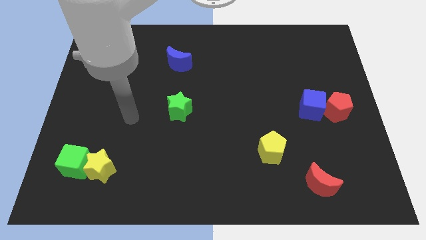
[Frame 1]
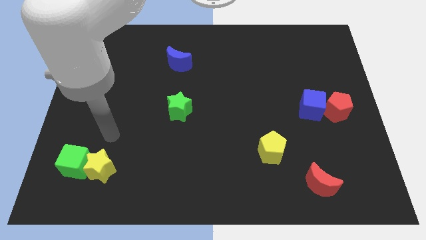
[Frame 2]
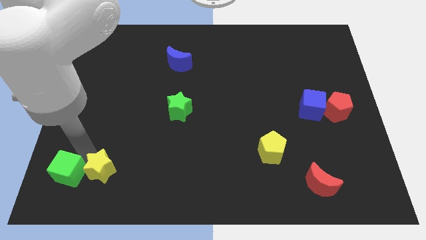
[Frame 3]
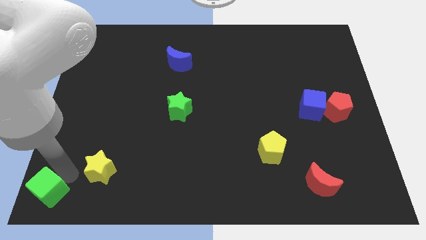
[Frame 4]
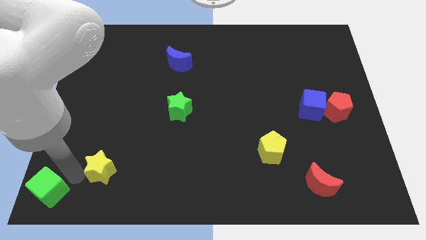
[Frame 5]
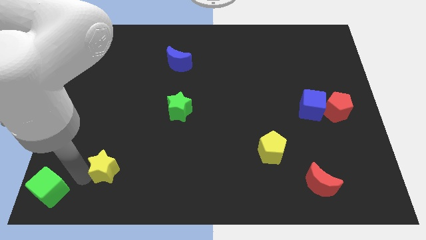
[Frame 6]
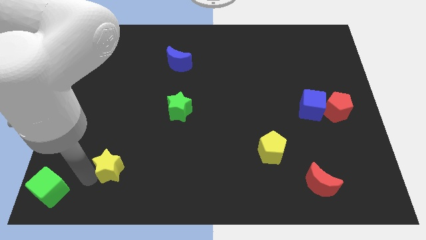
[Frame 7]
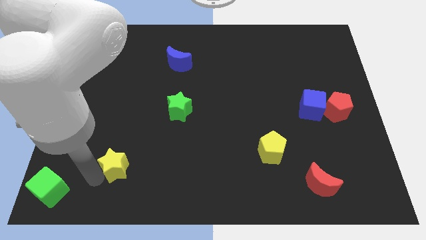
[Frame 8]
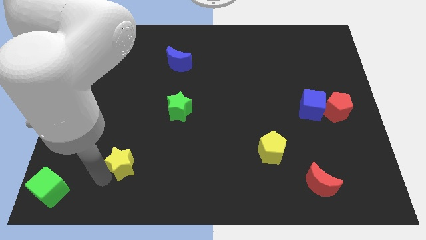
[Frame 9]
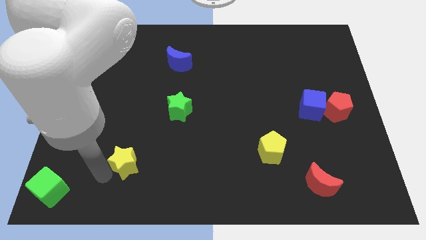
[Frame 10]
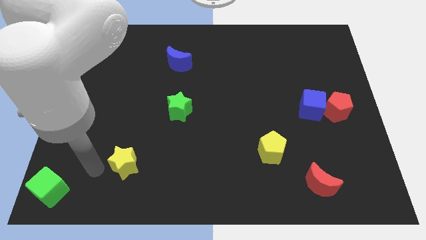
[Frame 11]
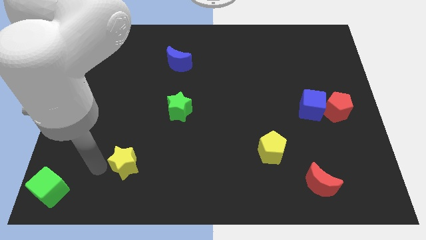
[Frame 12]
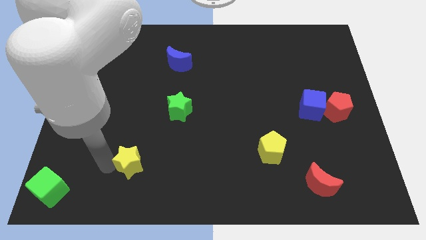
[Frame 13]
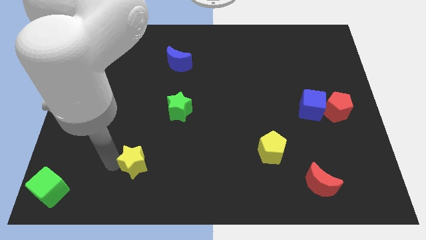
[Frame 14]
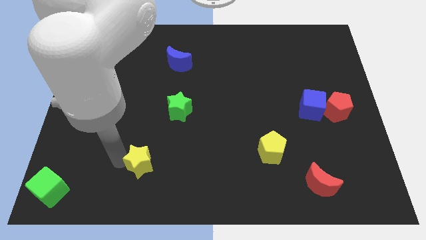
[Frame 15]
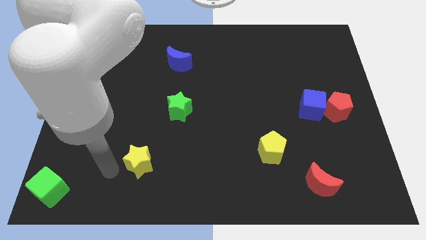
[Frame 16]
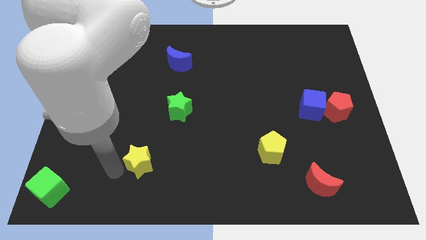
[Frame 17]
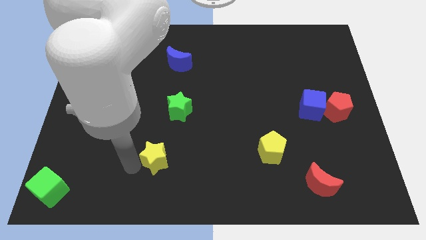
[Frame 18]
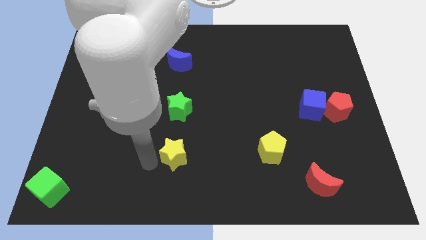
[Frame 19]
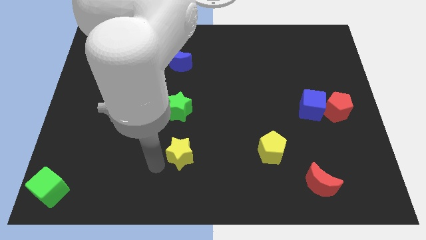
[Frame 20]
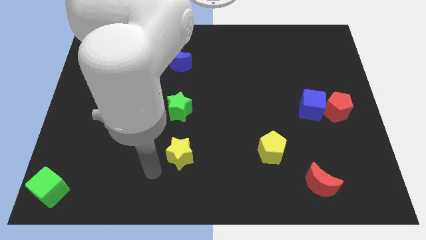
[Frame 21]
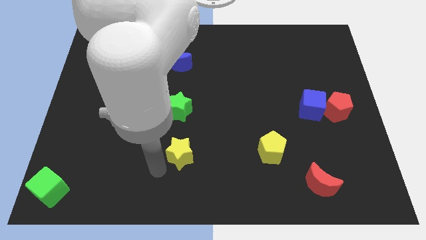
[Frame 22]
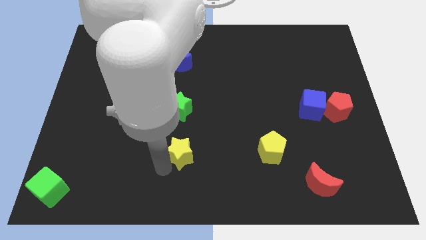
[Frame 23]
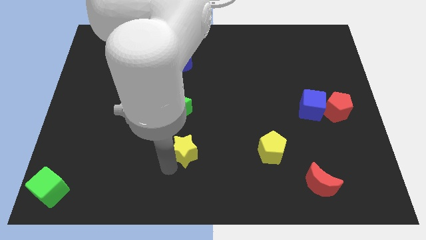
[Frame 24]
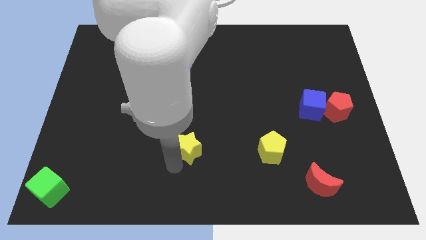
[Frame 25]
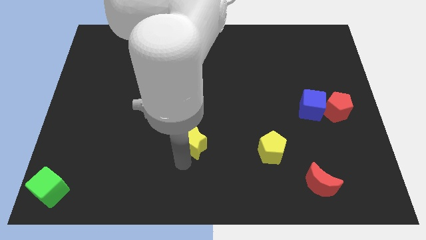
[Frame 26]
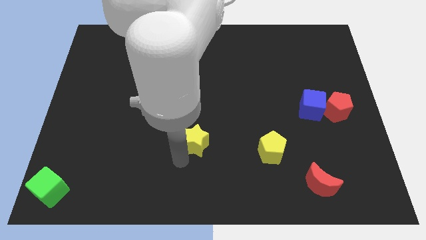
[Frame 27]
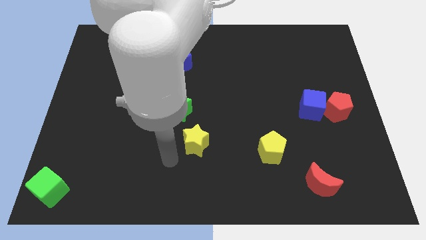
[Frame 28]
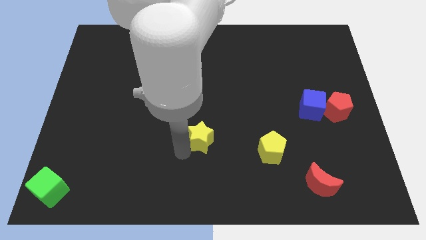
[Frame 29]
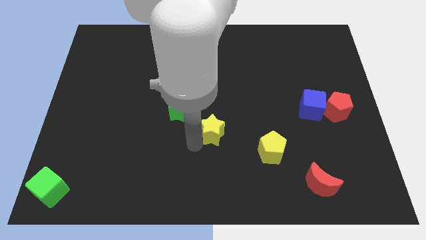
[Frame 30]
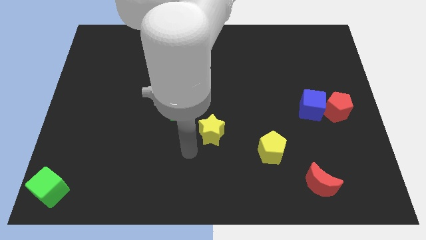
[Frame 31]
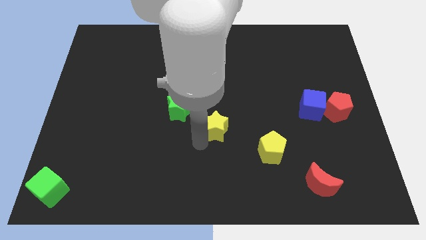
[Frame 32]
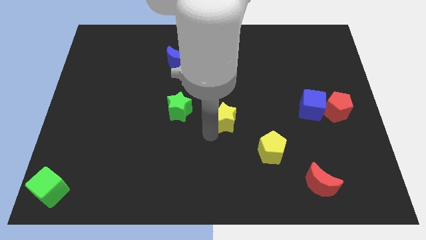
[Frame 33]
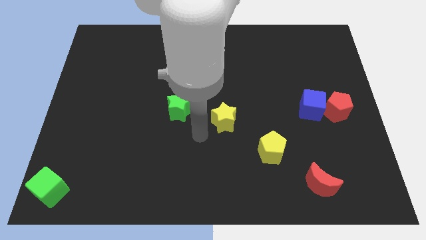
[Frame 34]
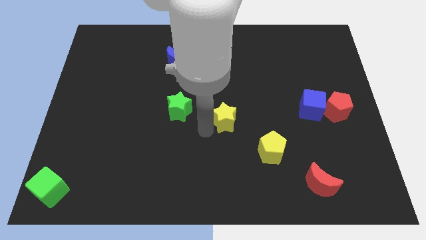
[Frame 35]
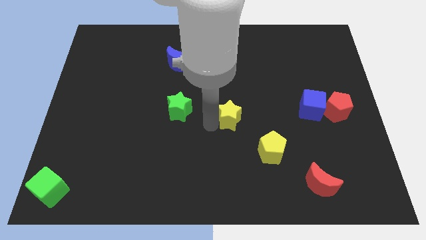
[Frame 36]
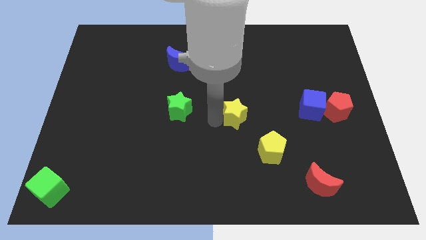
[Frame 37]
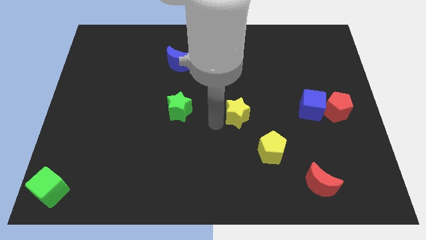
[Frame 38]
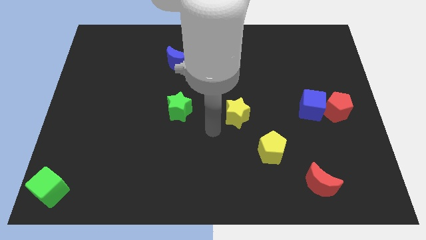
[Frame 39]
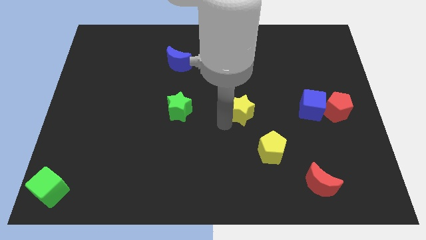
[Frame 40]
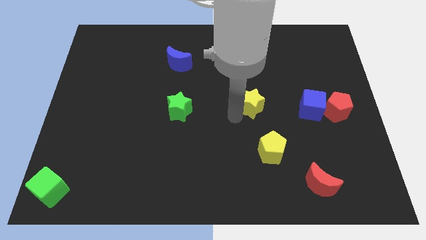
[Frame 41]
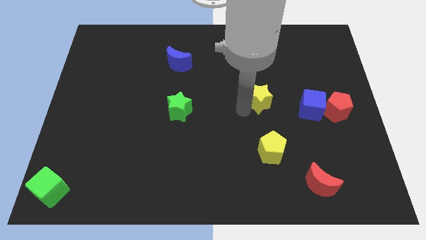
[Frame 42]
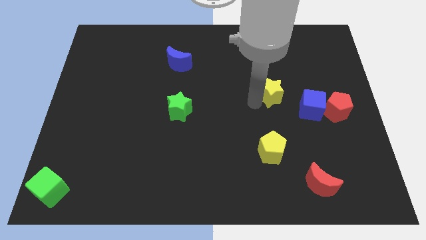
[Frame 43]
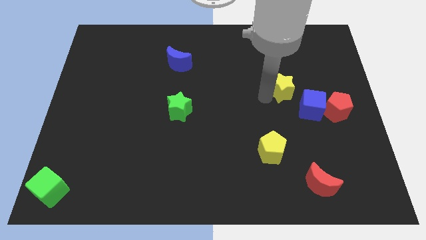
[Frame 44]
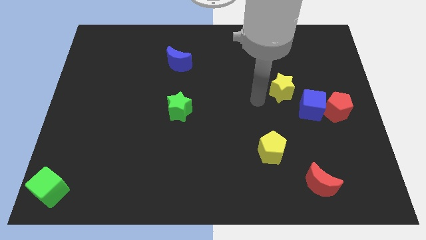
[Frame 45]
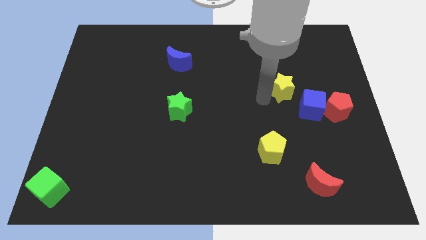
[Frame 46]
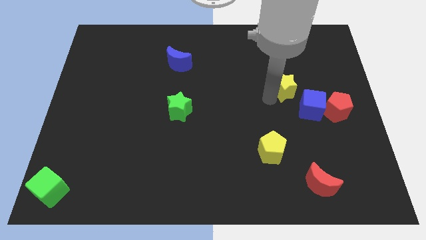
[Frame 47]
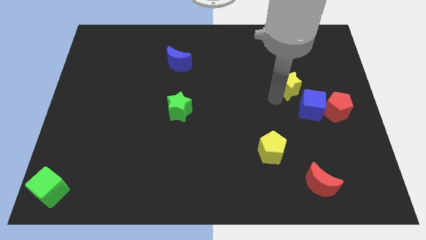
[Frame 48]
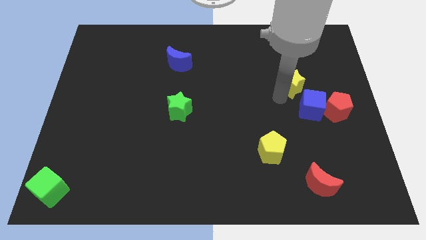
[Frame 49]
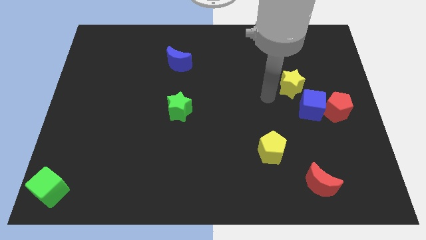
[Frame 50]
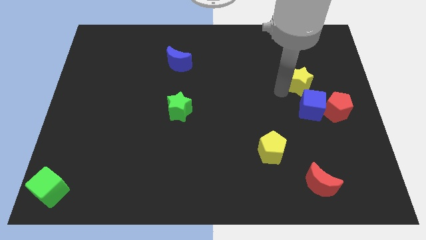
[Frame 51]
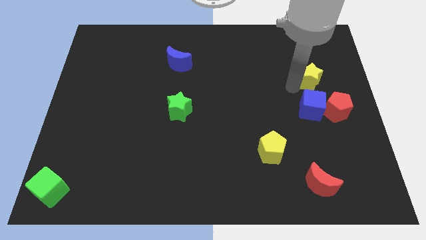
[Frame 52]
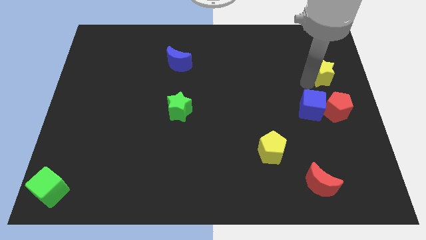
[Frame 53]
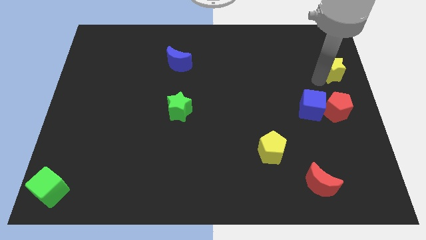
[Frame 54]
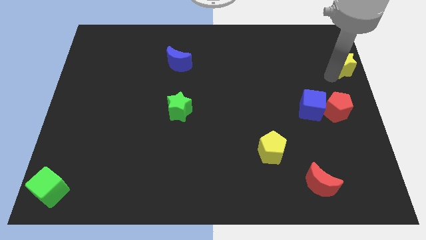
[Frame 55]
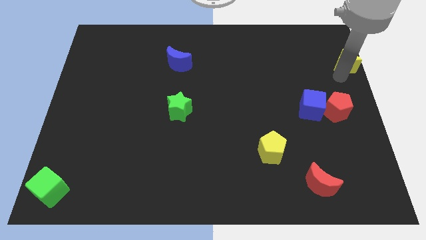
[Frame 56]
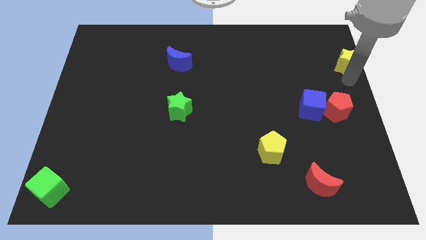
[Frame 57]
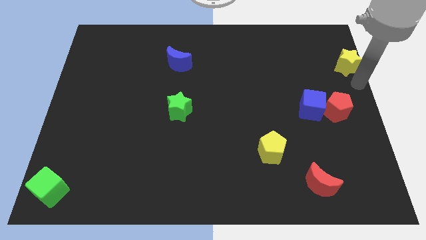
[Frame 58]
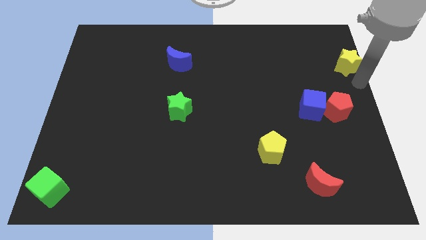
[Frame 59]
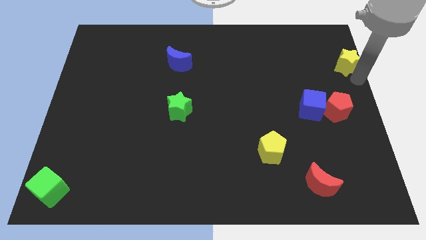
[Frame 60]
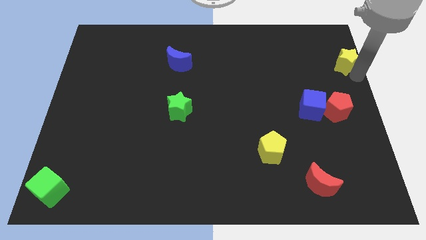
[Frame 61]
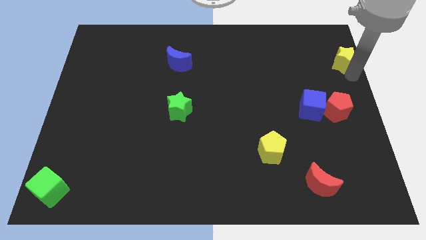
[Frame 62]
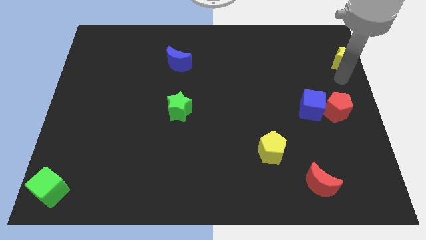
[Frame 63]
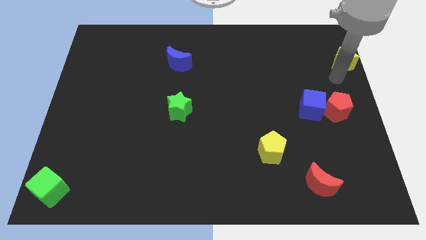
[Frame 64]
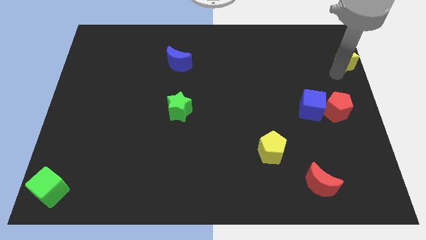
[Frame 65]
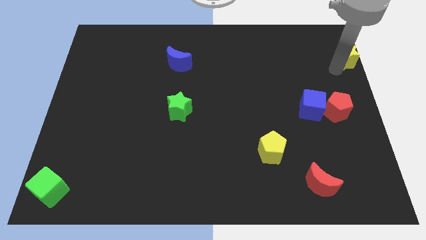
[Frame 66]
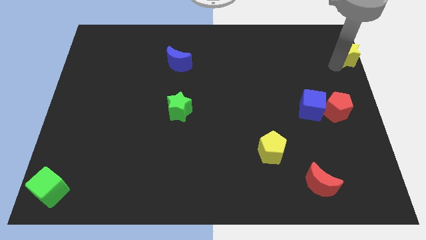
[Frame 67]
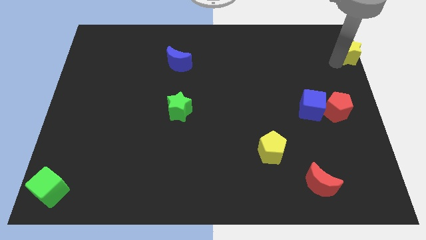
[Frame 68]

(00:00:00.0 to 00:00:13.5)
move the yellow star to the top right

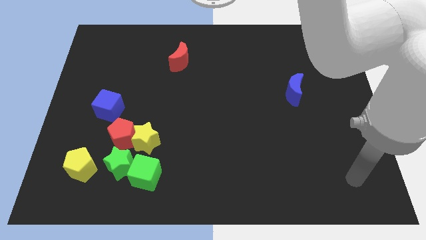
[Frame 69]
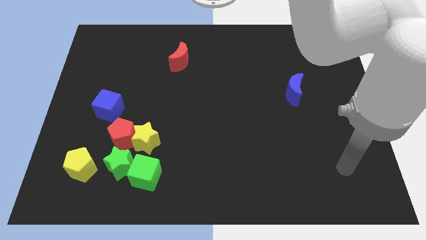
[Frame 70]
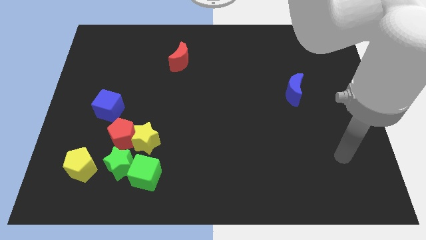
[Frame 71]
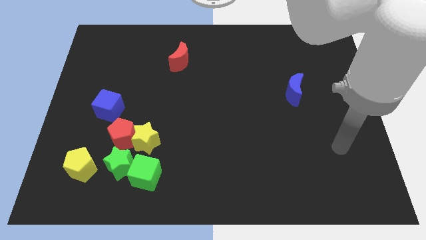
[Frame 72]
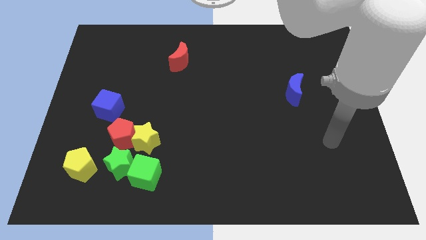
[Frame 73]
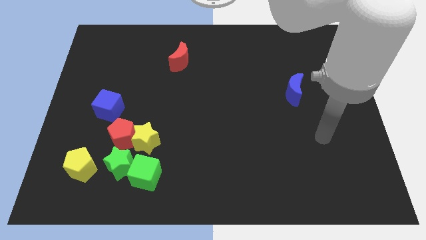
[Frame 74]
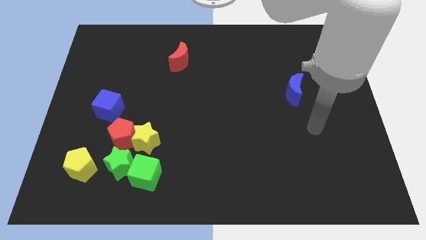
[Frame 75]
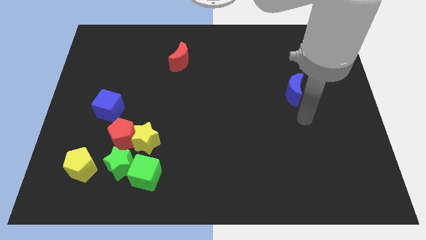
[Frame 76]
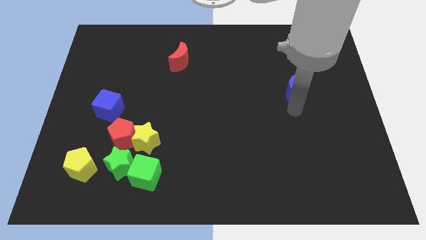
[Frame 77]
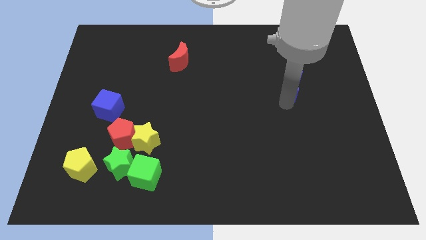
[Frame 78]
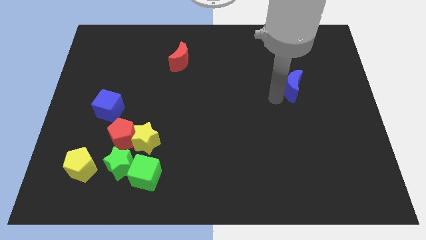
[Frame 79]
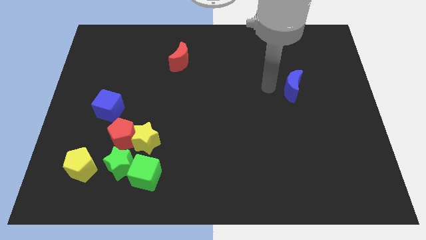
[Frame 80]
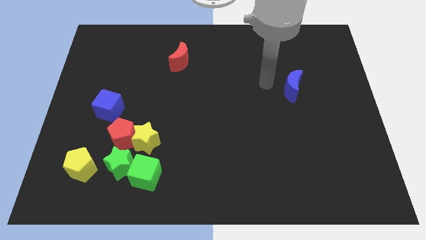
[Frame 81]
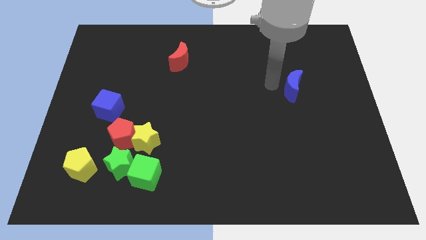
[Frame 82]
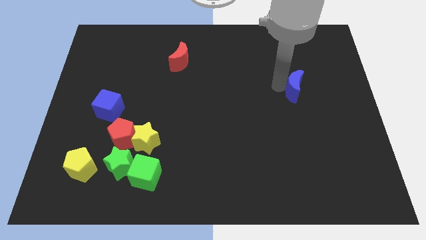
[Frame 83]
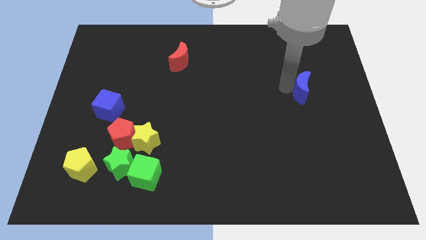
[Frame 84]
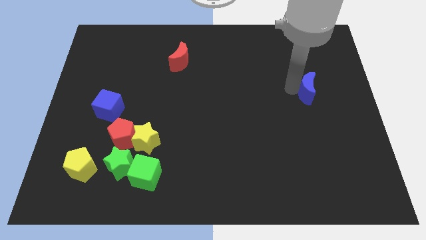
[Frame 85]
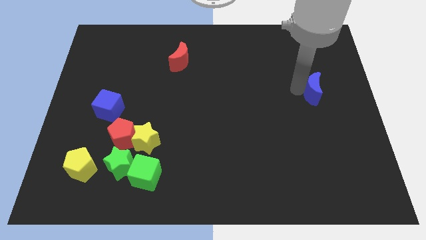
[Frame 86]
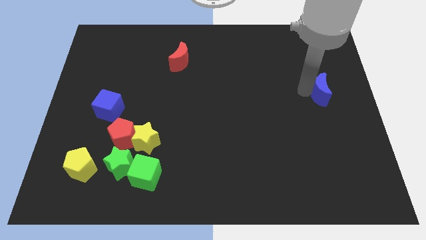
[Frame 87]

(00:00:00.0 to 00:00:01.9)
move the blue moon to the center right
